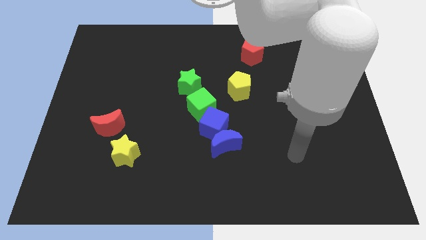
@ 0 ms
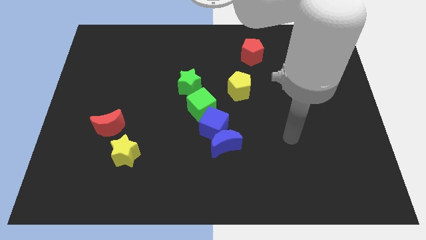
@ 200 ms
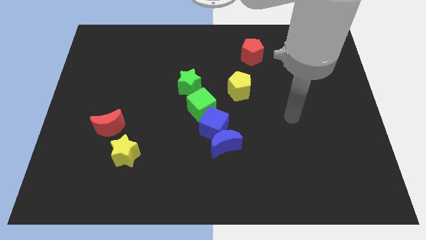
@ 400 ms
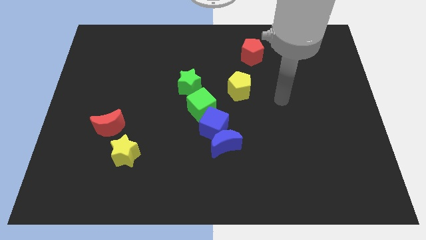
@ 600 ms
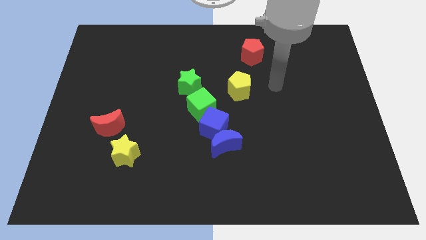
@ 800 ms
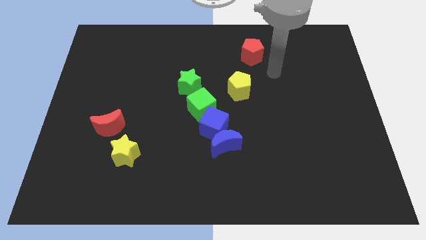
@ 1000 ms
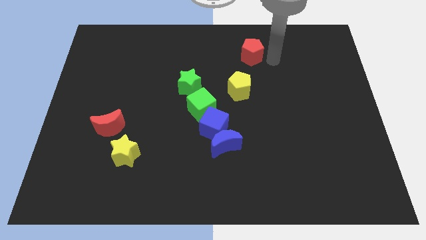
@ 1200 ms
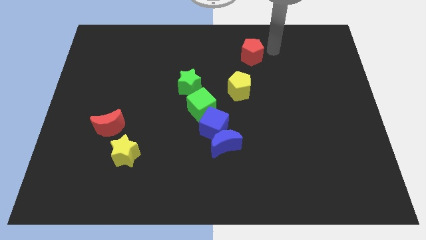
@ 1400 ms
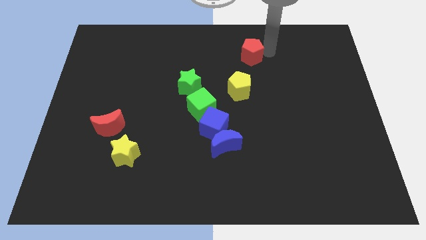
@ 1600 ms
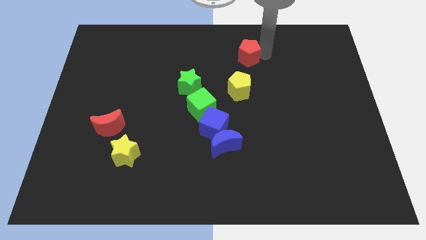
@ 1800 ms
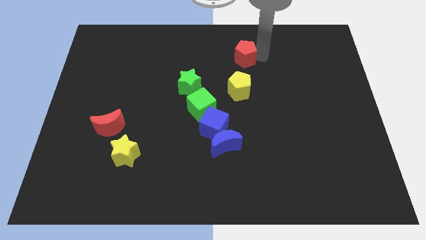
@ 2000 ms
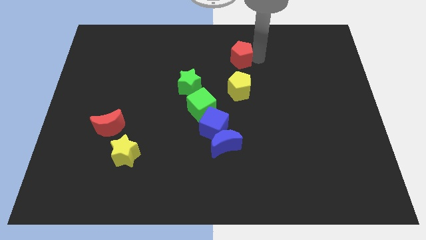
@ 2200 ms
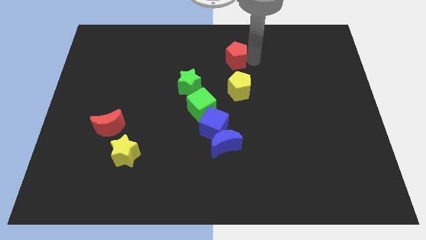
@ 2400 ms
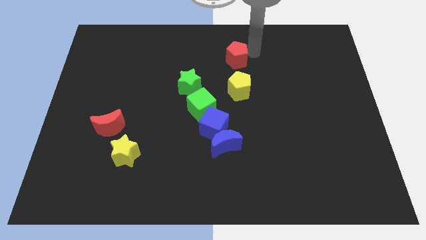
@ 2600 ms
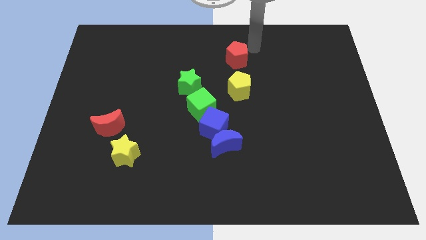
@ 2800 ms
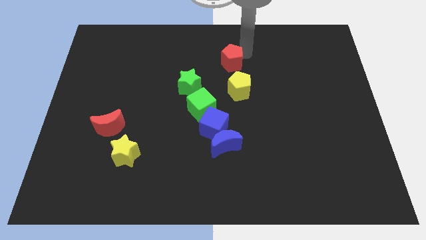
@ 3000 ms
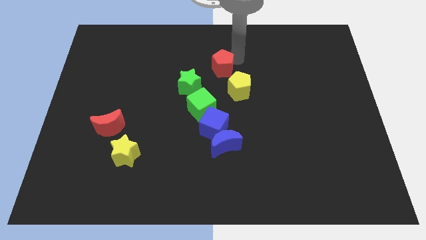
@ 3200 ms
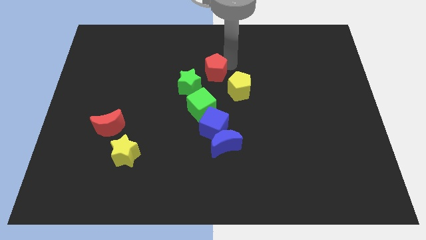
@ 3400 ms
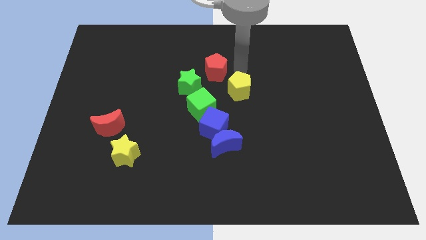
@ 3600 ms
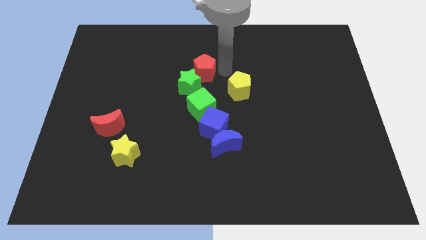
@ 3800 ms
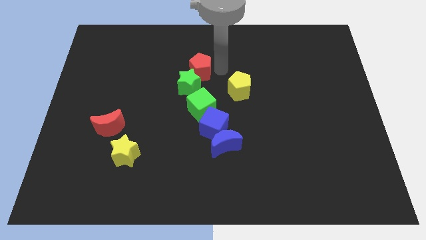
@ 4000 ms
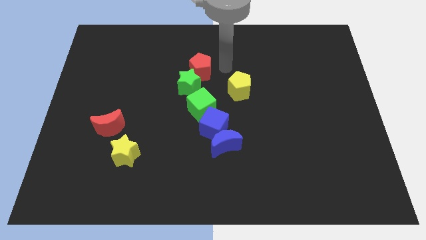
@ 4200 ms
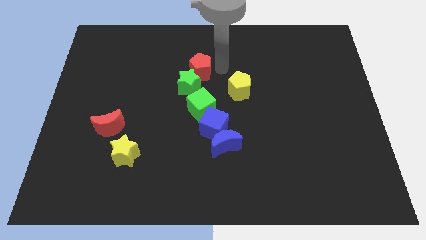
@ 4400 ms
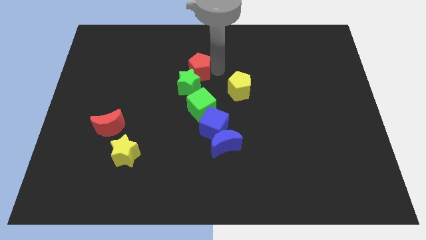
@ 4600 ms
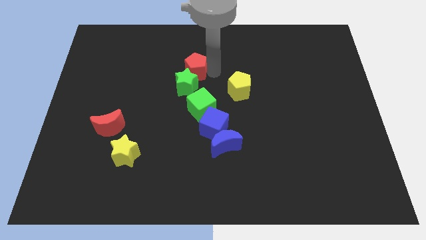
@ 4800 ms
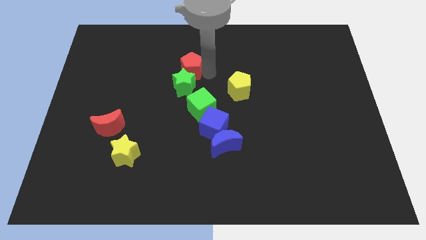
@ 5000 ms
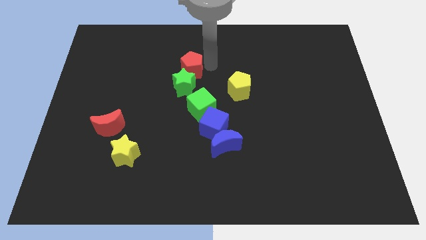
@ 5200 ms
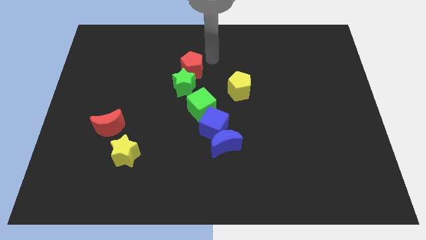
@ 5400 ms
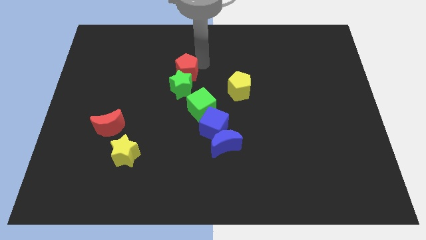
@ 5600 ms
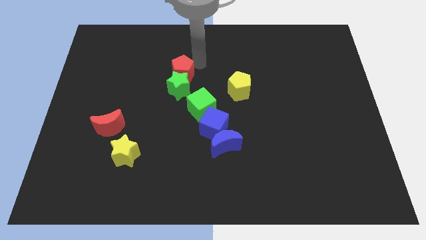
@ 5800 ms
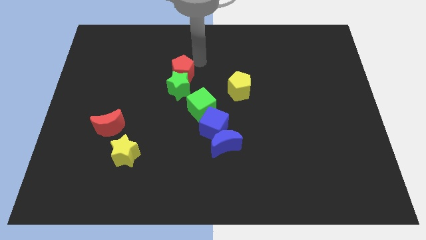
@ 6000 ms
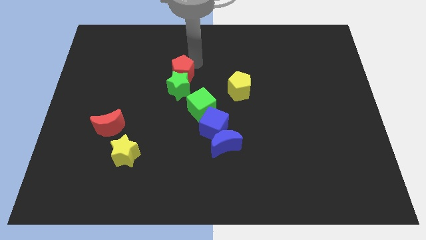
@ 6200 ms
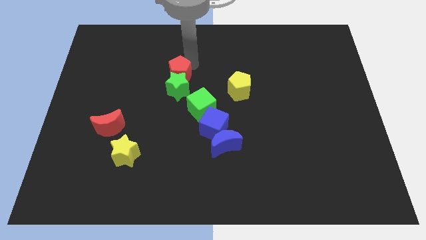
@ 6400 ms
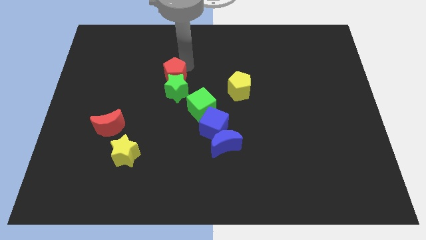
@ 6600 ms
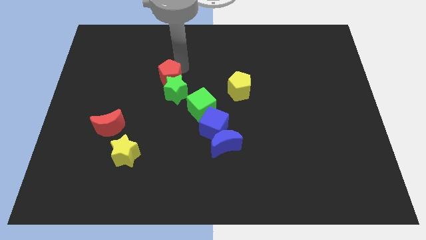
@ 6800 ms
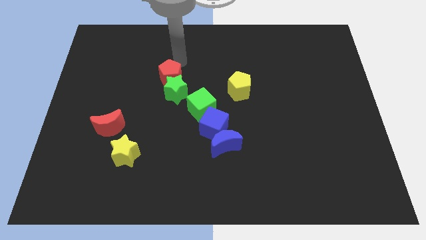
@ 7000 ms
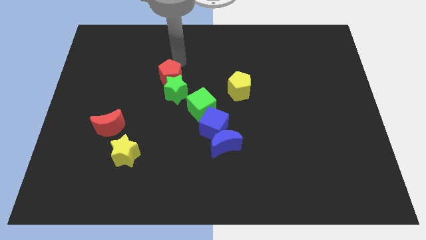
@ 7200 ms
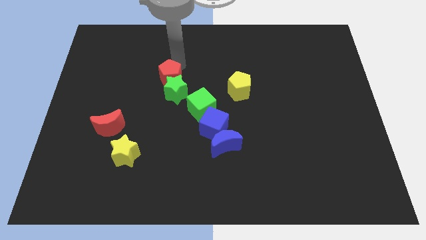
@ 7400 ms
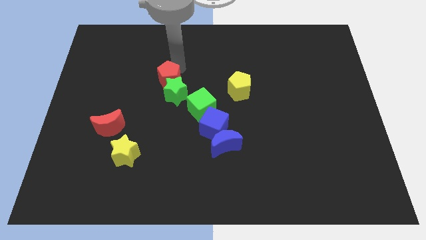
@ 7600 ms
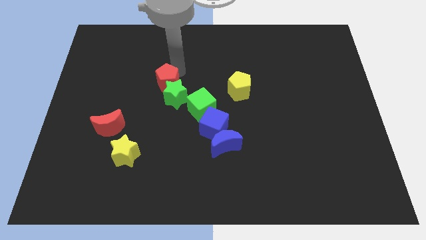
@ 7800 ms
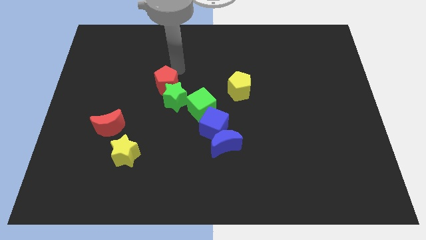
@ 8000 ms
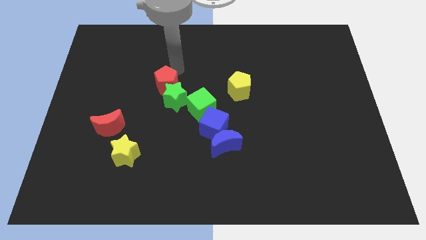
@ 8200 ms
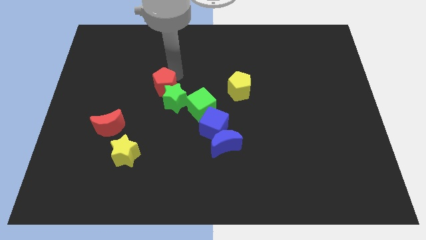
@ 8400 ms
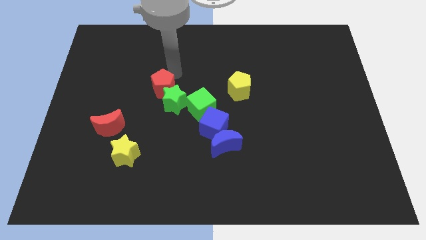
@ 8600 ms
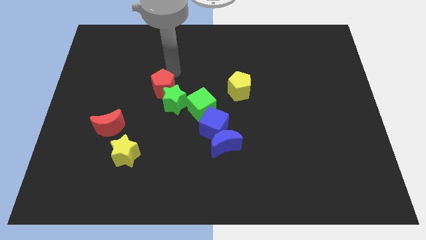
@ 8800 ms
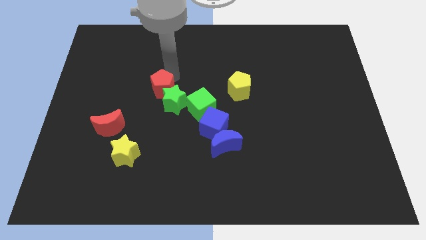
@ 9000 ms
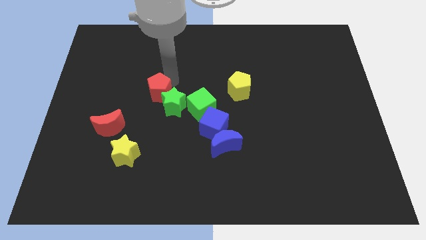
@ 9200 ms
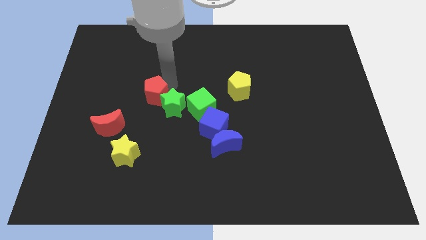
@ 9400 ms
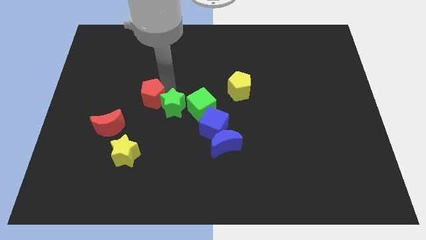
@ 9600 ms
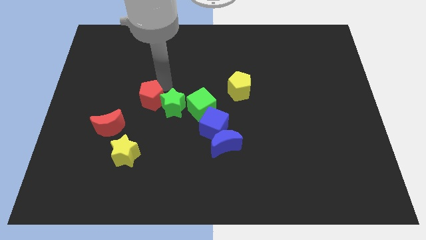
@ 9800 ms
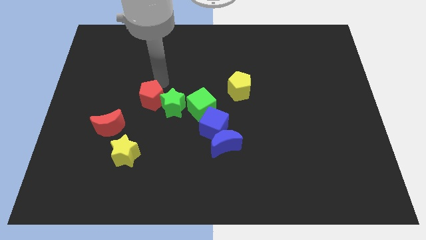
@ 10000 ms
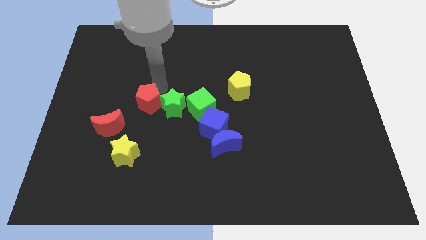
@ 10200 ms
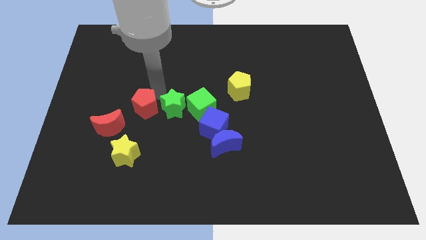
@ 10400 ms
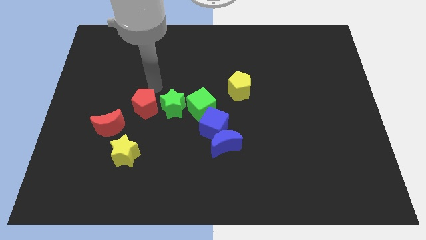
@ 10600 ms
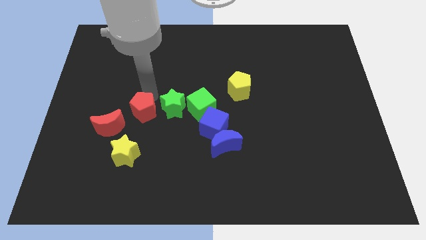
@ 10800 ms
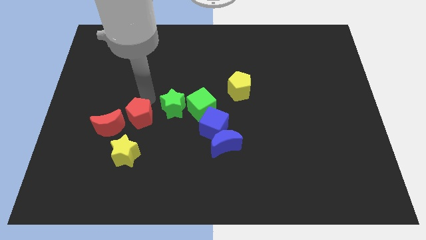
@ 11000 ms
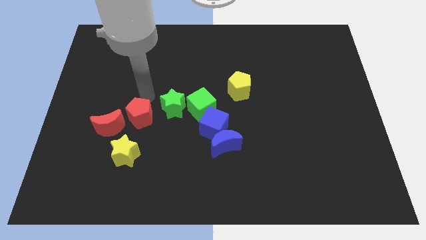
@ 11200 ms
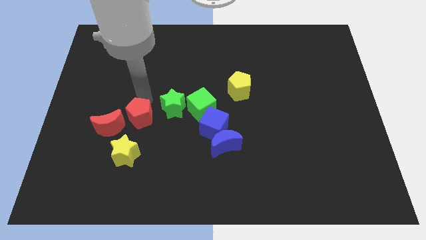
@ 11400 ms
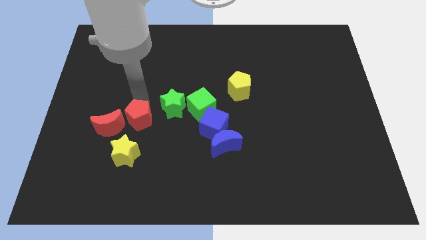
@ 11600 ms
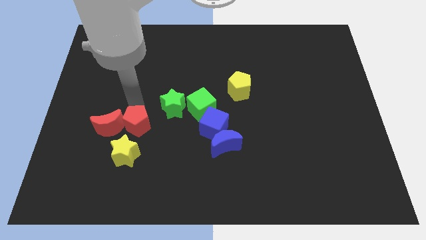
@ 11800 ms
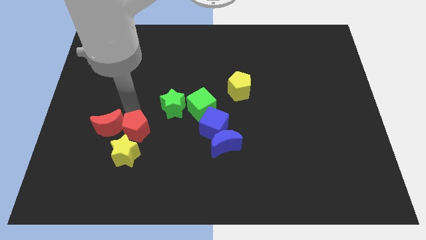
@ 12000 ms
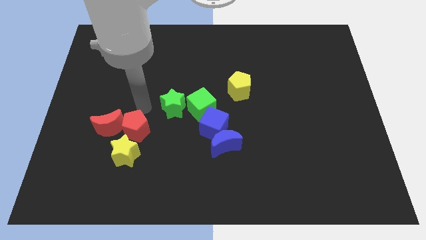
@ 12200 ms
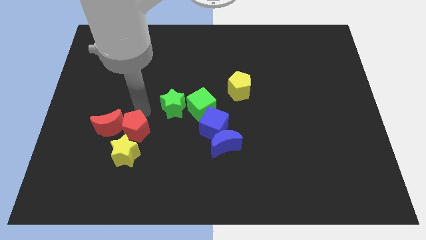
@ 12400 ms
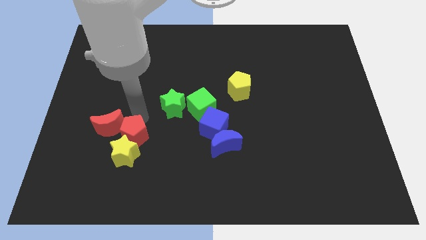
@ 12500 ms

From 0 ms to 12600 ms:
put the red pentagon towards the yellow star

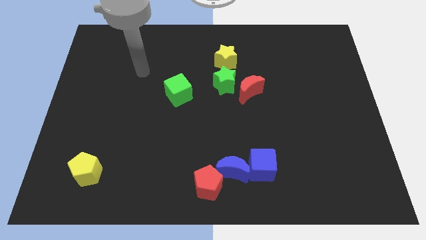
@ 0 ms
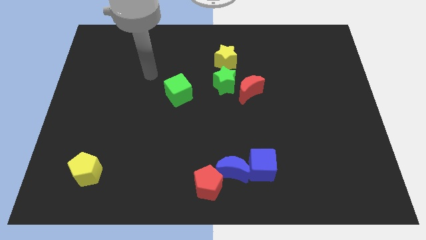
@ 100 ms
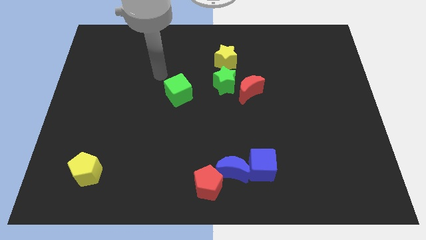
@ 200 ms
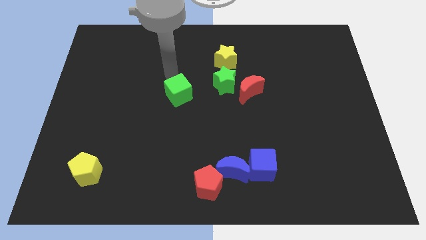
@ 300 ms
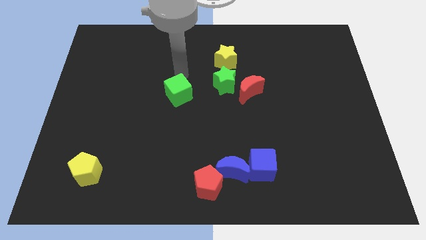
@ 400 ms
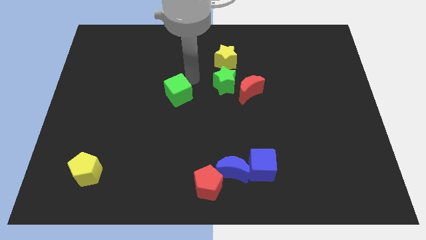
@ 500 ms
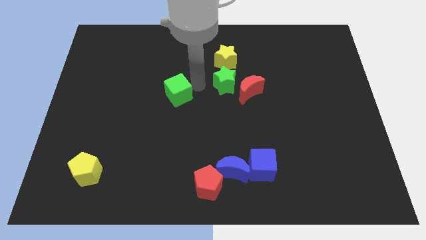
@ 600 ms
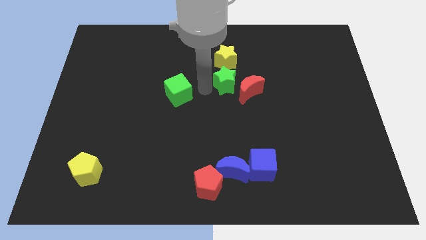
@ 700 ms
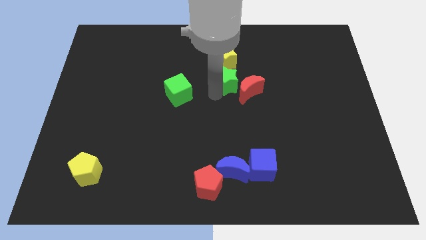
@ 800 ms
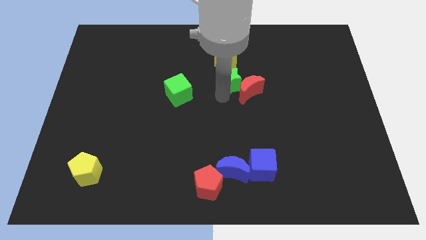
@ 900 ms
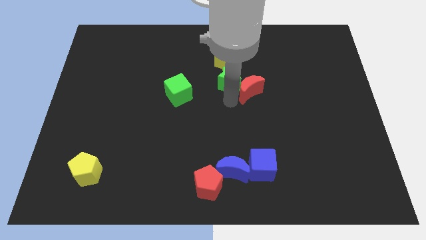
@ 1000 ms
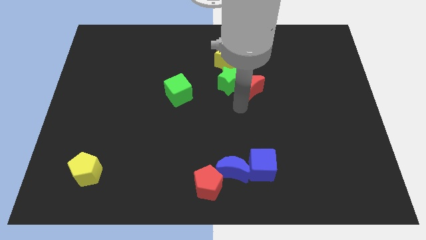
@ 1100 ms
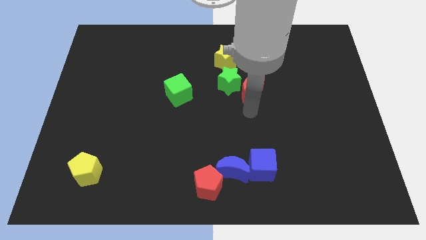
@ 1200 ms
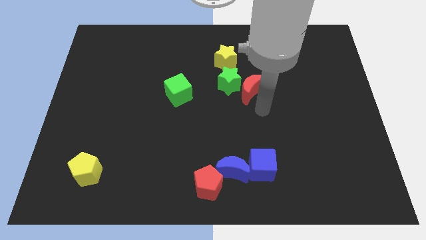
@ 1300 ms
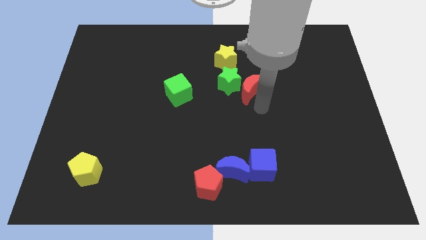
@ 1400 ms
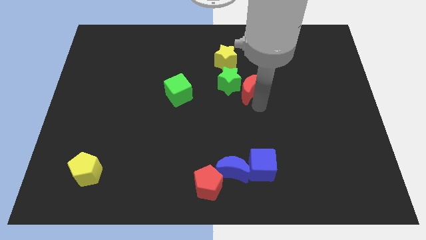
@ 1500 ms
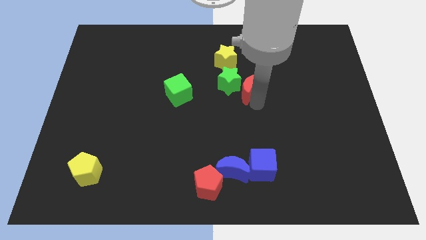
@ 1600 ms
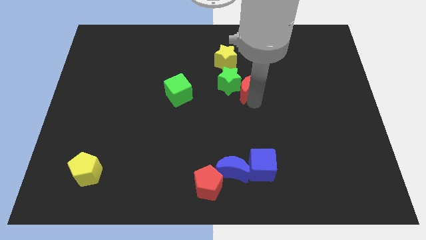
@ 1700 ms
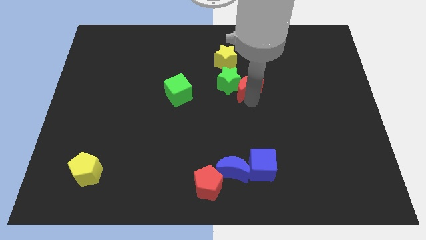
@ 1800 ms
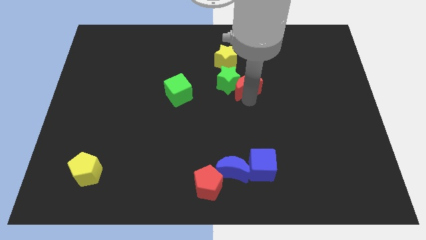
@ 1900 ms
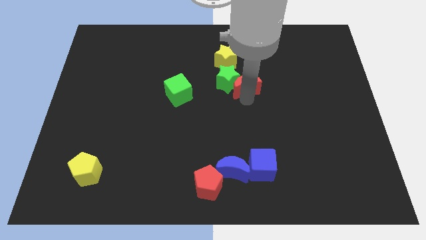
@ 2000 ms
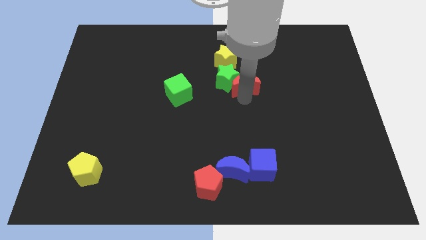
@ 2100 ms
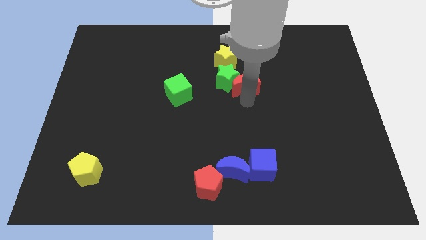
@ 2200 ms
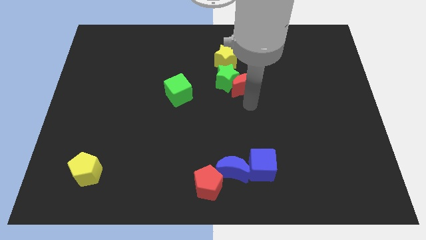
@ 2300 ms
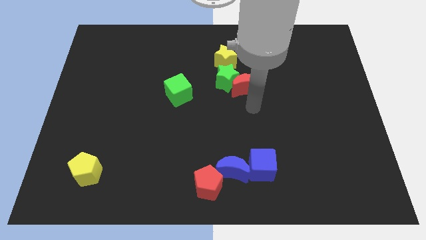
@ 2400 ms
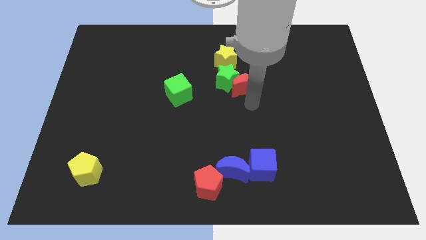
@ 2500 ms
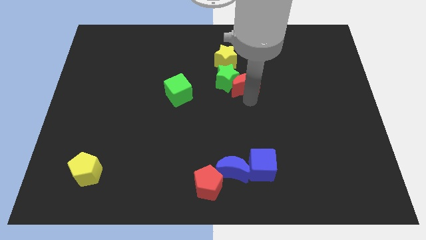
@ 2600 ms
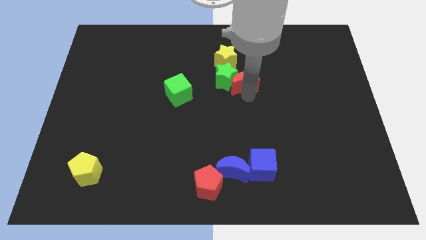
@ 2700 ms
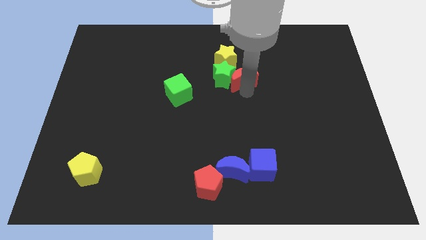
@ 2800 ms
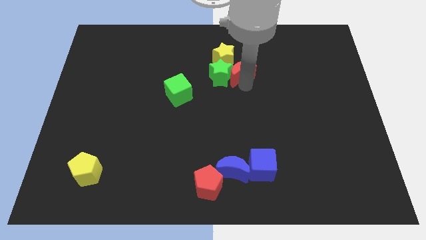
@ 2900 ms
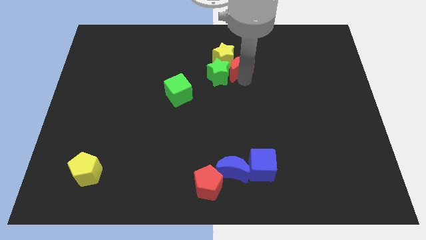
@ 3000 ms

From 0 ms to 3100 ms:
move the red moon to the yellow star
